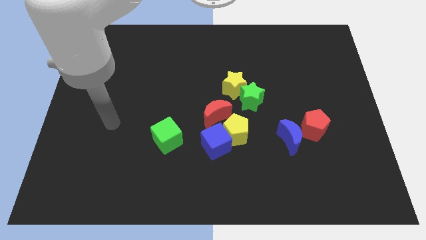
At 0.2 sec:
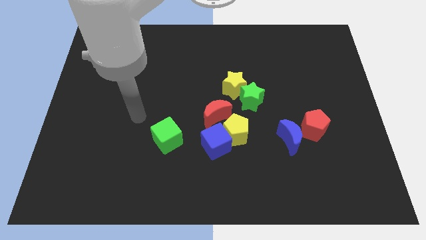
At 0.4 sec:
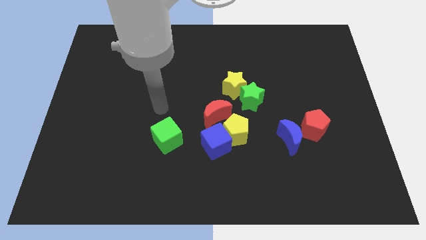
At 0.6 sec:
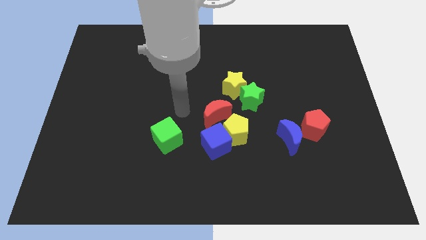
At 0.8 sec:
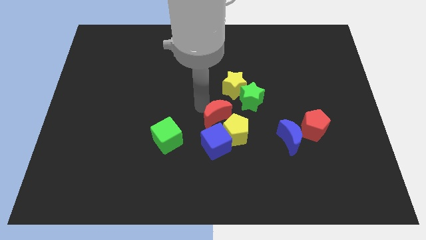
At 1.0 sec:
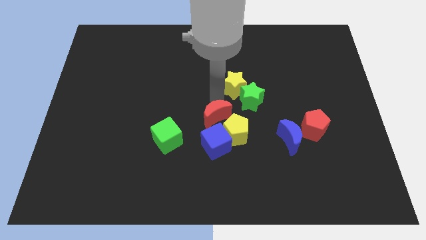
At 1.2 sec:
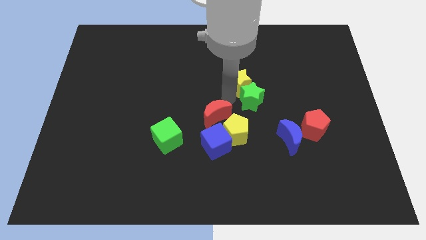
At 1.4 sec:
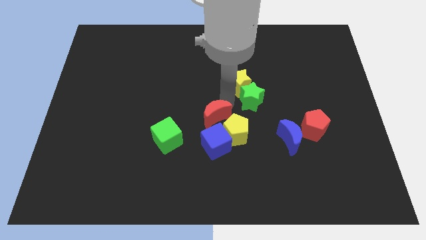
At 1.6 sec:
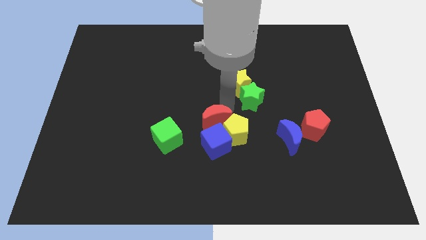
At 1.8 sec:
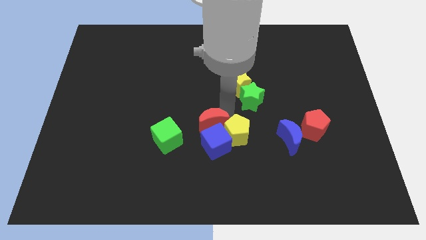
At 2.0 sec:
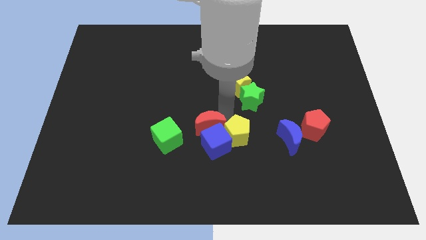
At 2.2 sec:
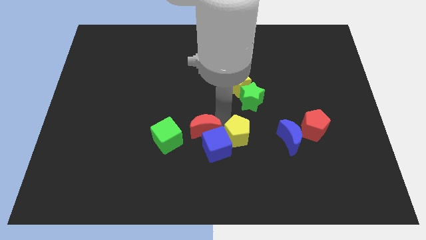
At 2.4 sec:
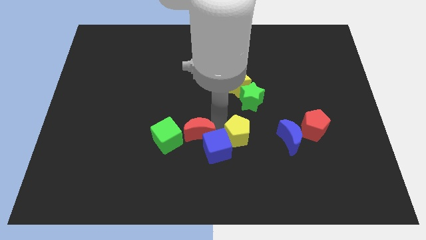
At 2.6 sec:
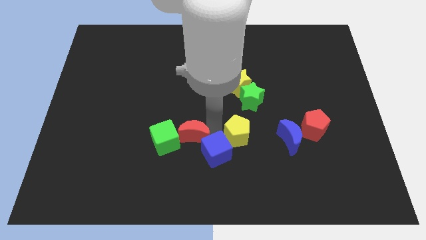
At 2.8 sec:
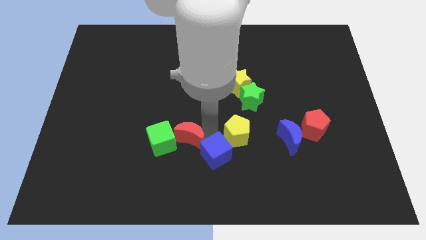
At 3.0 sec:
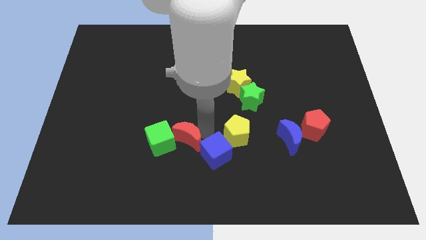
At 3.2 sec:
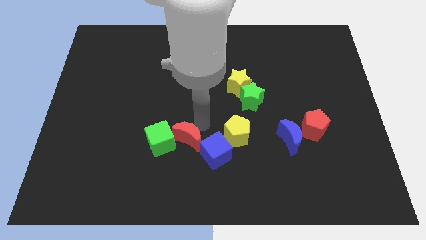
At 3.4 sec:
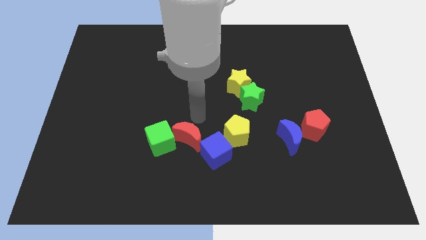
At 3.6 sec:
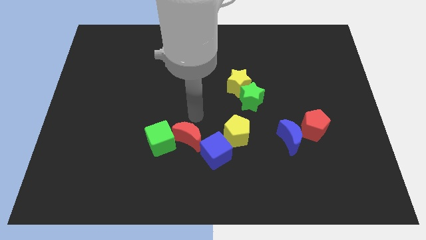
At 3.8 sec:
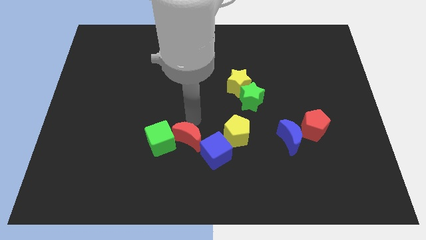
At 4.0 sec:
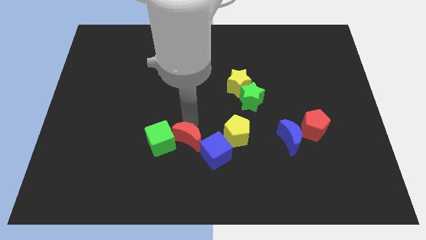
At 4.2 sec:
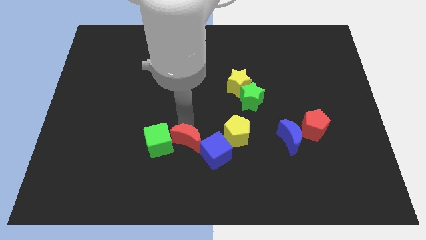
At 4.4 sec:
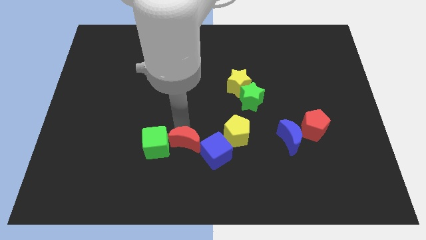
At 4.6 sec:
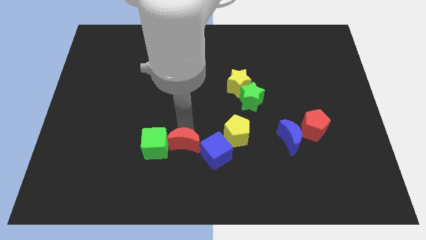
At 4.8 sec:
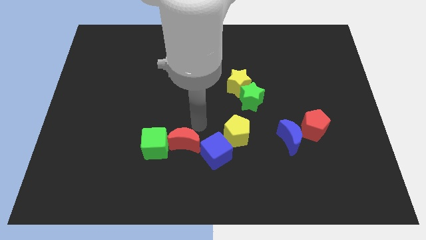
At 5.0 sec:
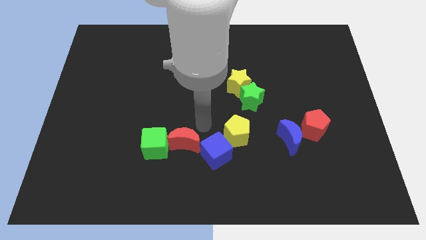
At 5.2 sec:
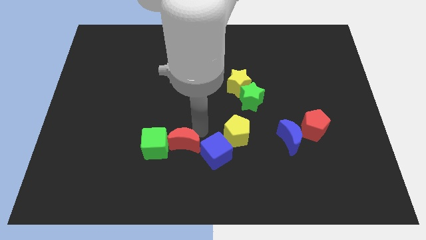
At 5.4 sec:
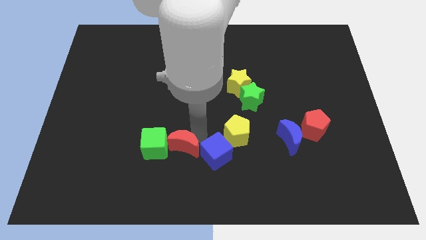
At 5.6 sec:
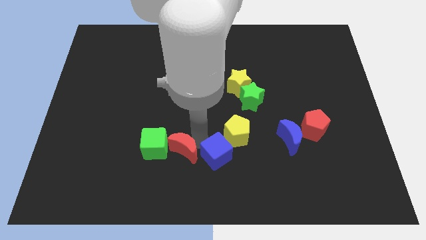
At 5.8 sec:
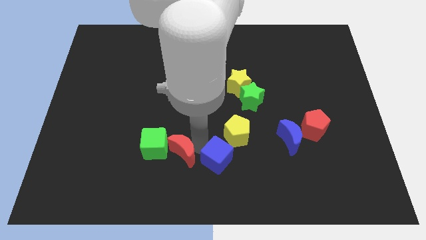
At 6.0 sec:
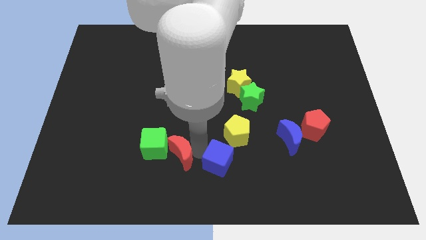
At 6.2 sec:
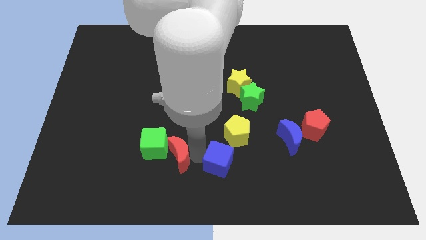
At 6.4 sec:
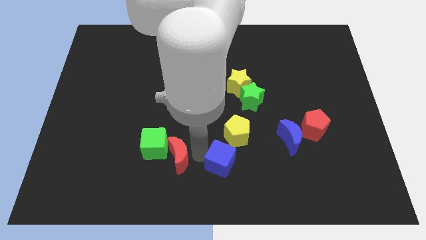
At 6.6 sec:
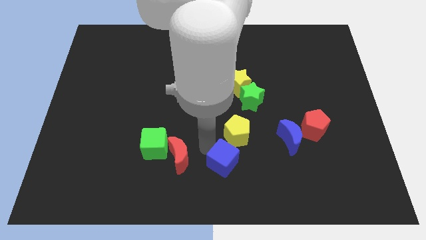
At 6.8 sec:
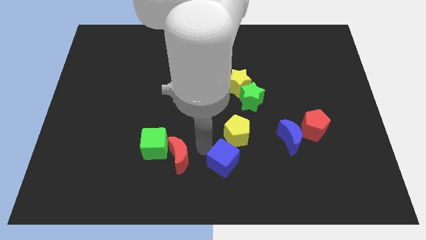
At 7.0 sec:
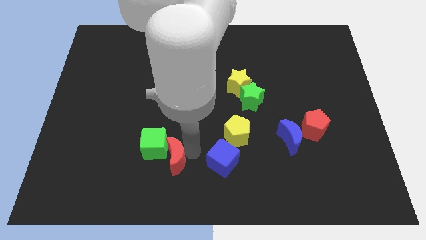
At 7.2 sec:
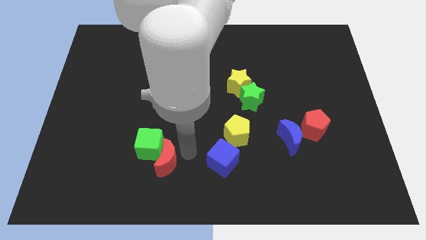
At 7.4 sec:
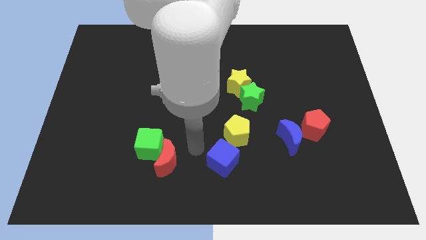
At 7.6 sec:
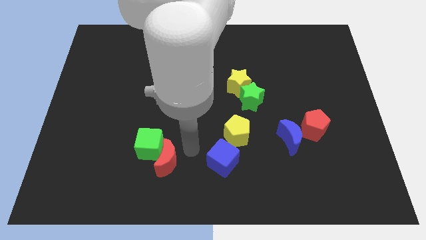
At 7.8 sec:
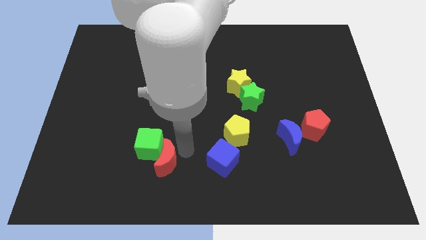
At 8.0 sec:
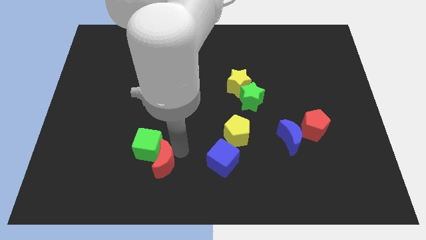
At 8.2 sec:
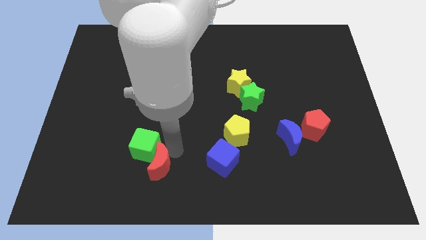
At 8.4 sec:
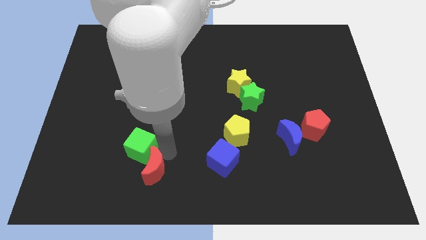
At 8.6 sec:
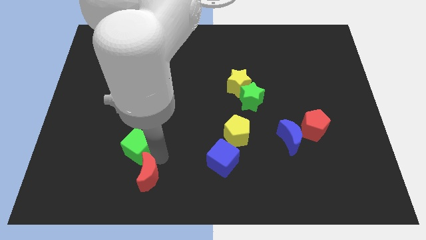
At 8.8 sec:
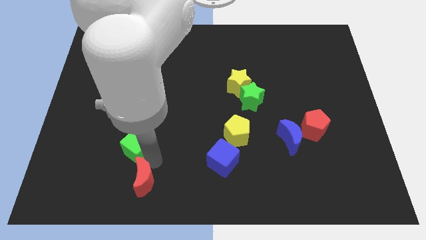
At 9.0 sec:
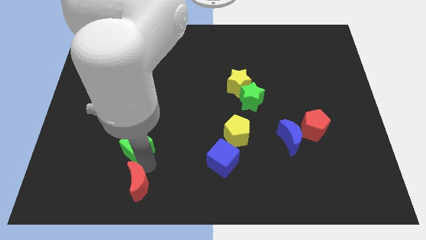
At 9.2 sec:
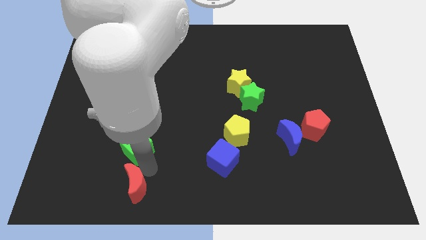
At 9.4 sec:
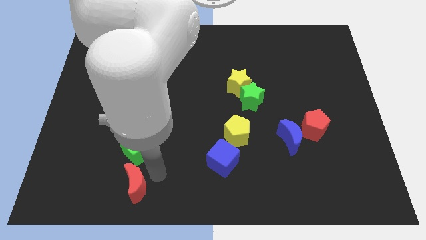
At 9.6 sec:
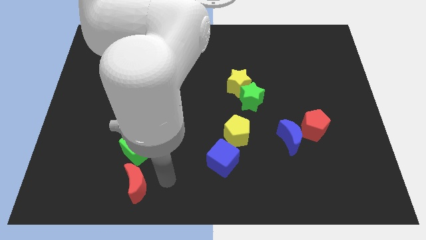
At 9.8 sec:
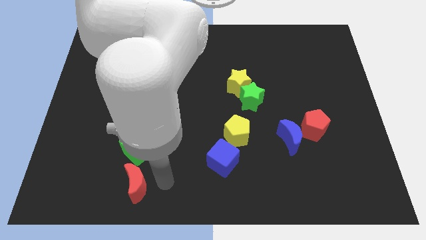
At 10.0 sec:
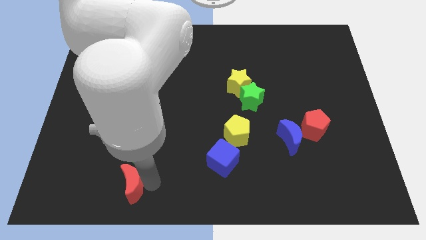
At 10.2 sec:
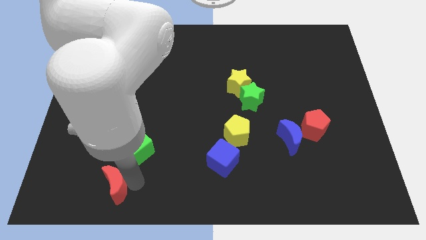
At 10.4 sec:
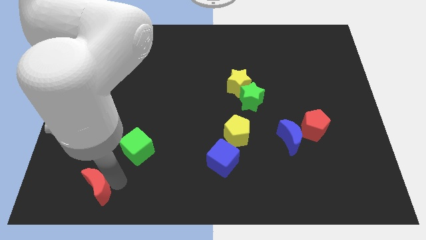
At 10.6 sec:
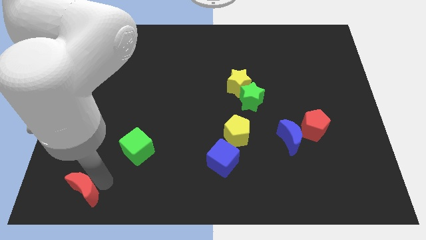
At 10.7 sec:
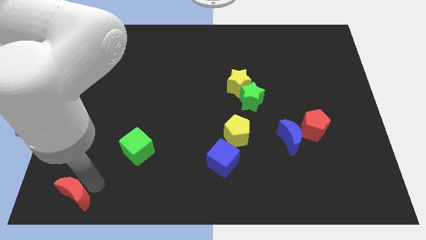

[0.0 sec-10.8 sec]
push the red moon to the bottom left corner
